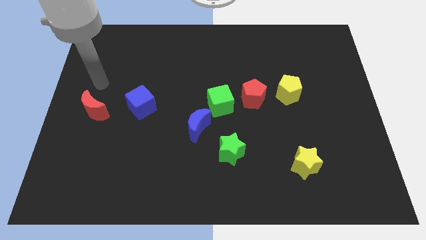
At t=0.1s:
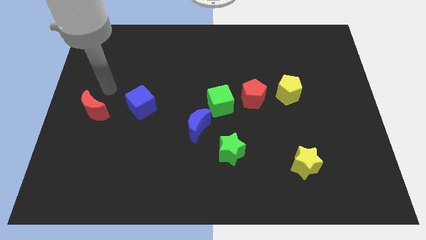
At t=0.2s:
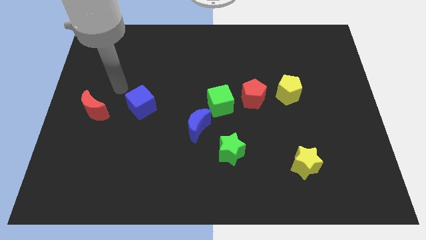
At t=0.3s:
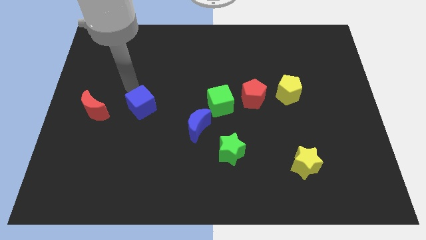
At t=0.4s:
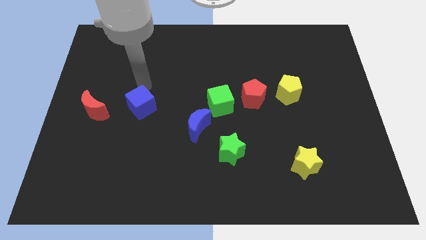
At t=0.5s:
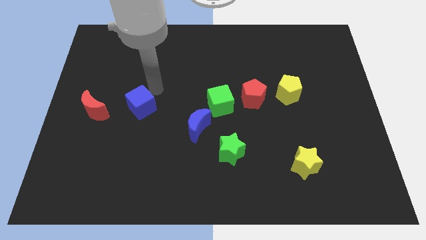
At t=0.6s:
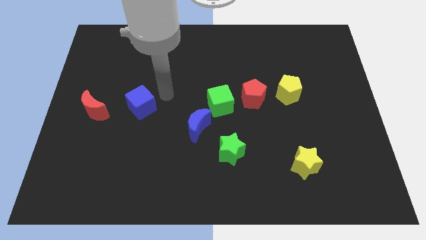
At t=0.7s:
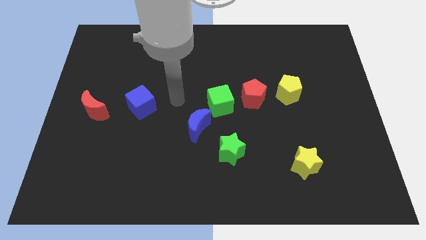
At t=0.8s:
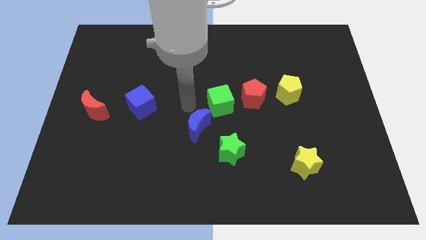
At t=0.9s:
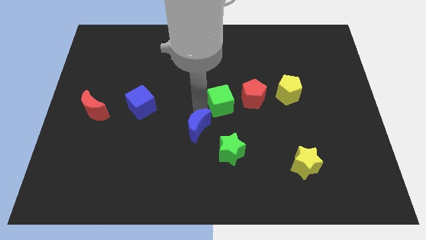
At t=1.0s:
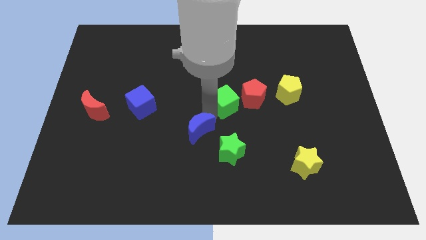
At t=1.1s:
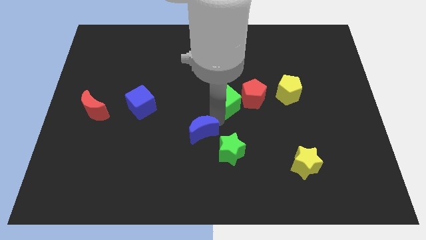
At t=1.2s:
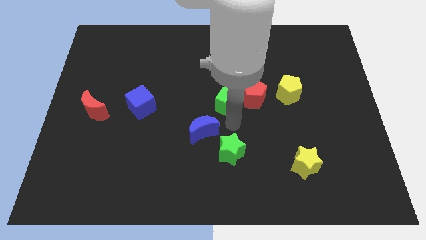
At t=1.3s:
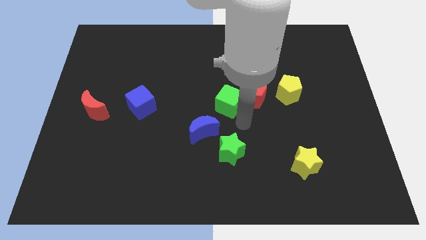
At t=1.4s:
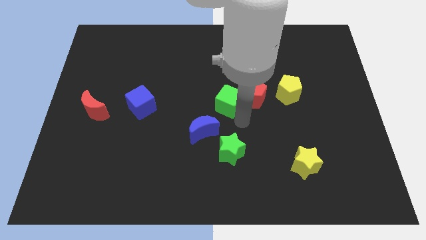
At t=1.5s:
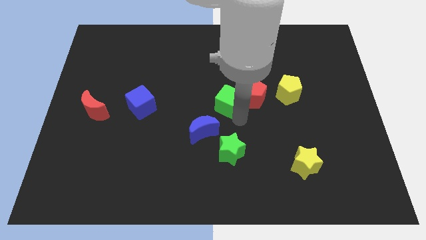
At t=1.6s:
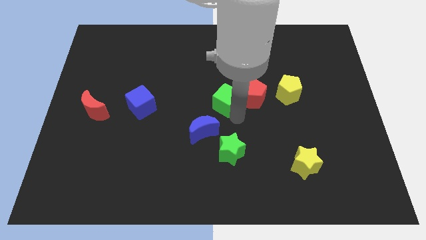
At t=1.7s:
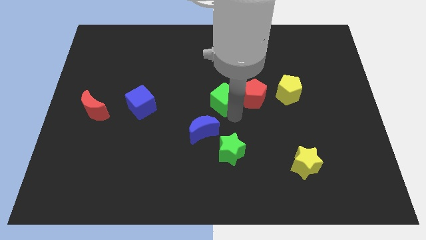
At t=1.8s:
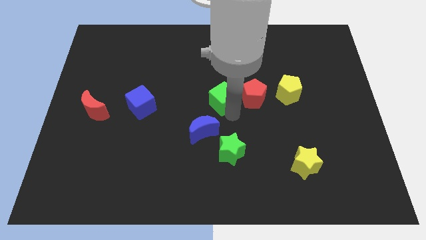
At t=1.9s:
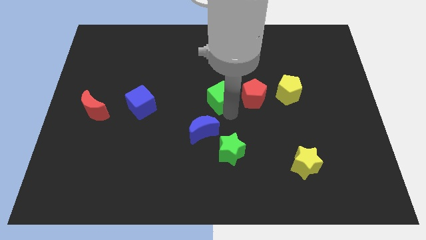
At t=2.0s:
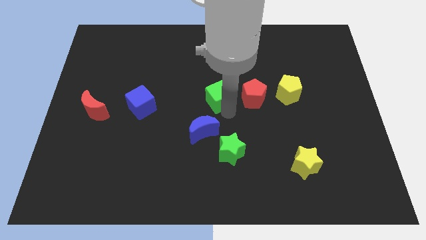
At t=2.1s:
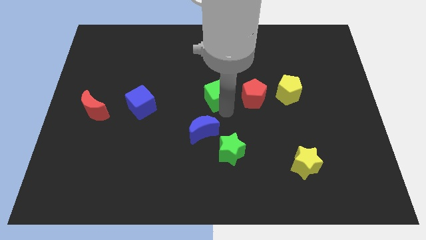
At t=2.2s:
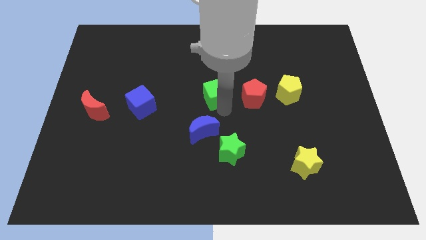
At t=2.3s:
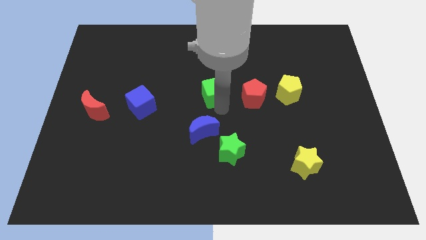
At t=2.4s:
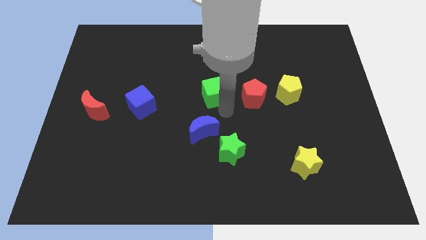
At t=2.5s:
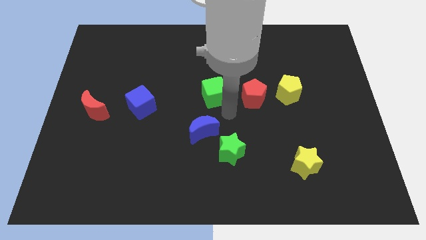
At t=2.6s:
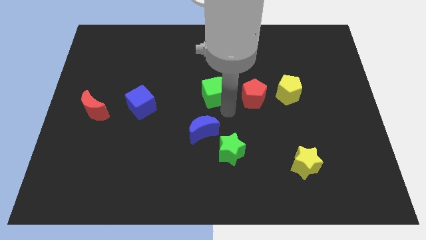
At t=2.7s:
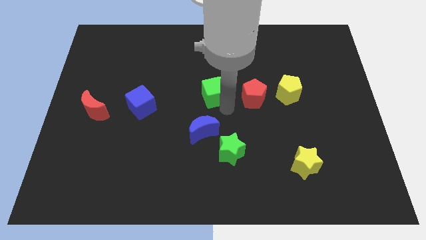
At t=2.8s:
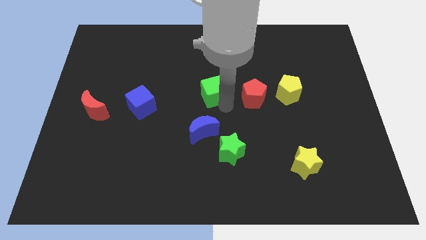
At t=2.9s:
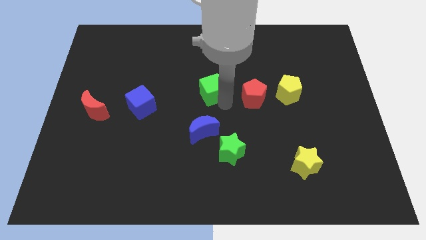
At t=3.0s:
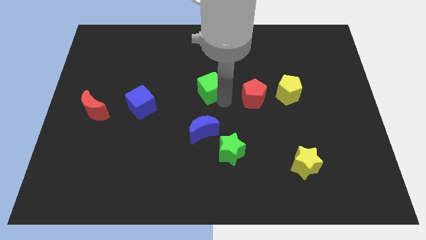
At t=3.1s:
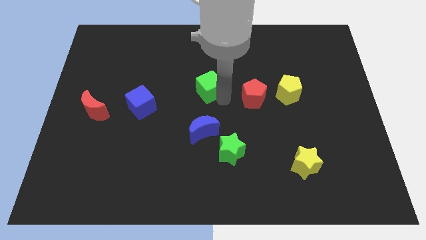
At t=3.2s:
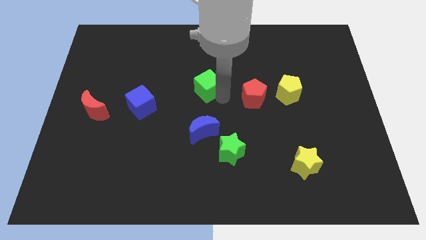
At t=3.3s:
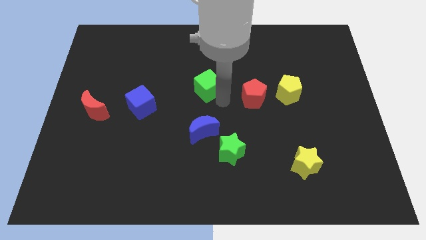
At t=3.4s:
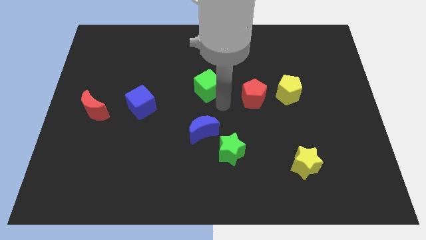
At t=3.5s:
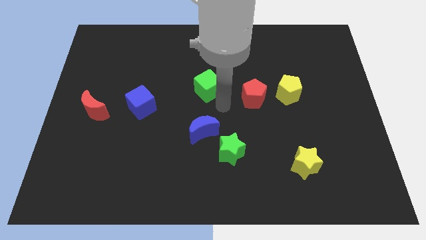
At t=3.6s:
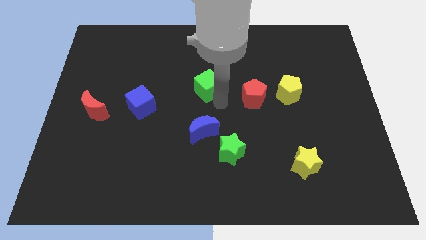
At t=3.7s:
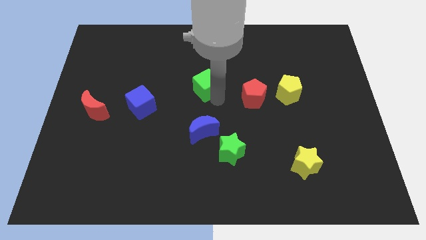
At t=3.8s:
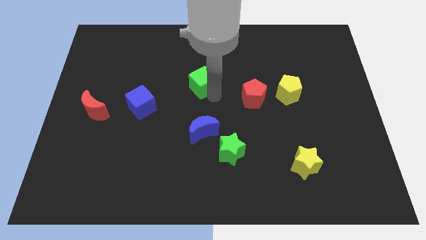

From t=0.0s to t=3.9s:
separate the green cube from the red pentagon and blue moon

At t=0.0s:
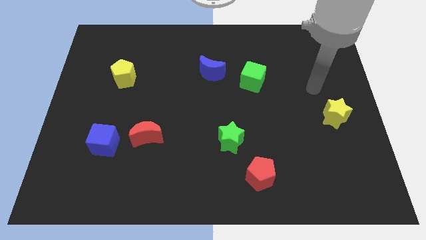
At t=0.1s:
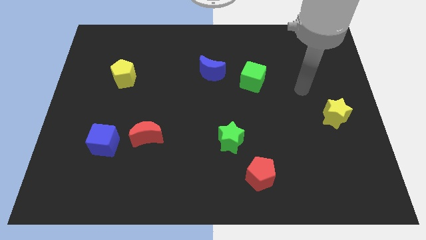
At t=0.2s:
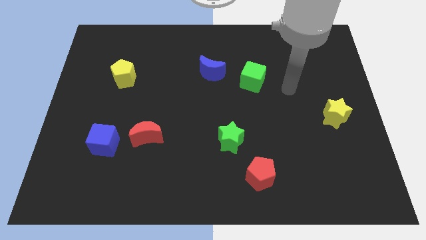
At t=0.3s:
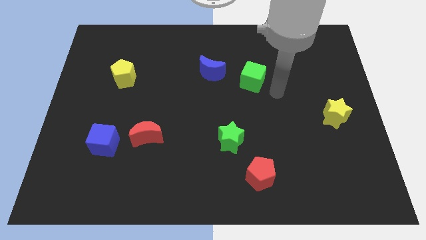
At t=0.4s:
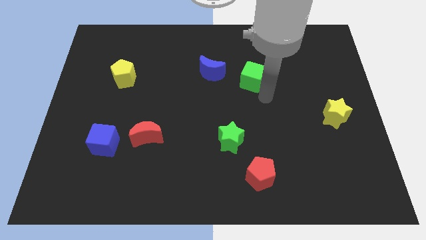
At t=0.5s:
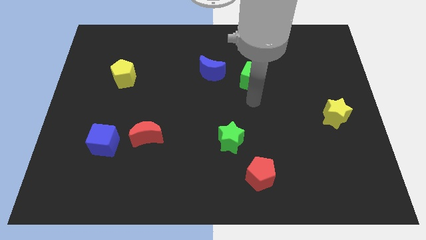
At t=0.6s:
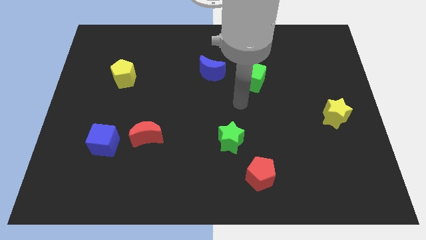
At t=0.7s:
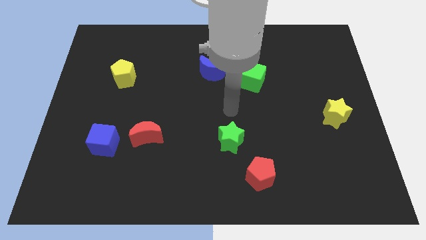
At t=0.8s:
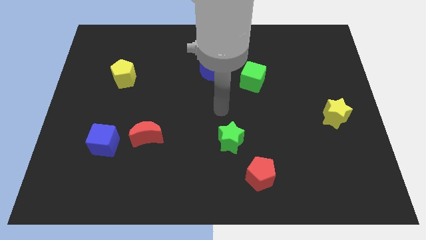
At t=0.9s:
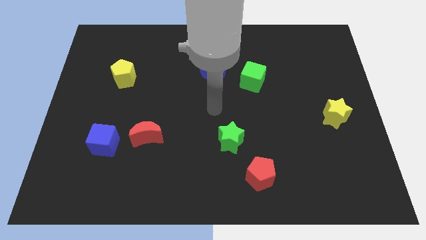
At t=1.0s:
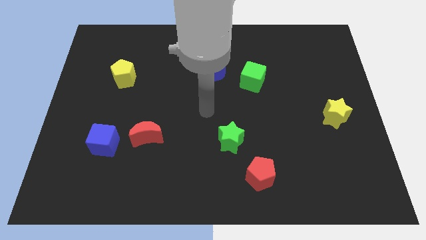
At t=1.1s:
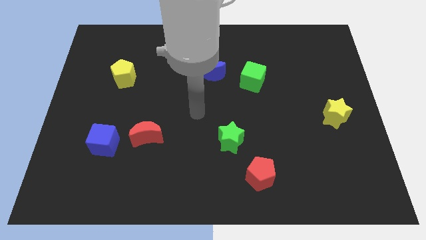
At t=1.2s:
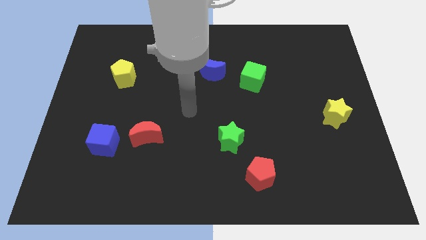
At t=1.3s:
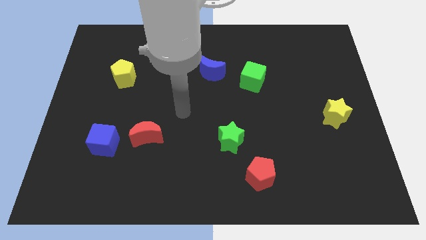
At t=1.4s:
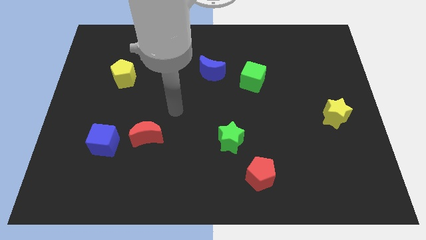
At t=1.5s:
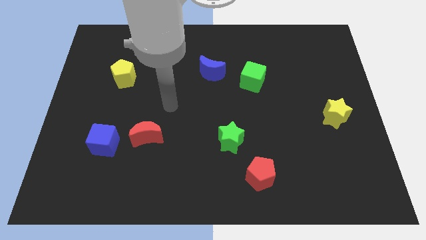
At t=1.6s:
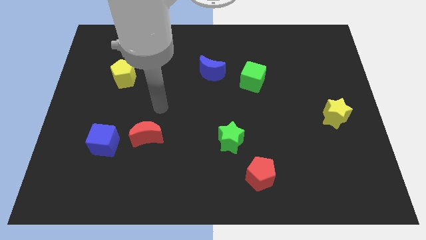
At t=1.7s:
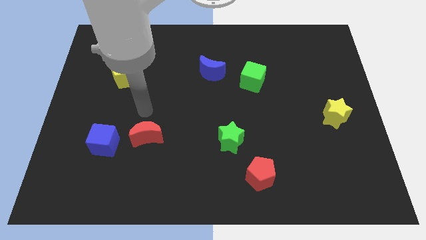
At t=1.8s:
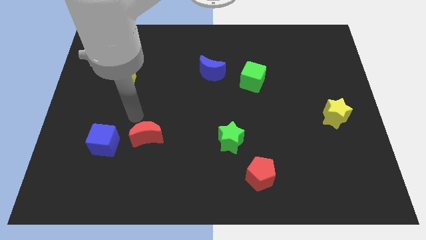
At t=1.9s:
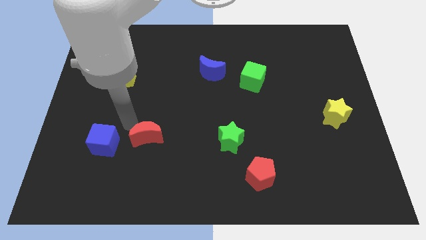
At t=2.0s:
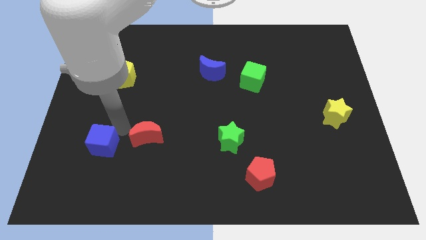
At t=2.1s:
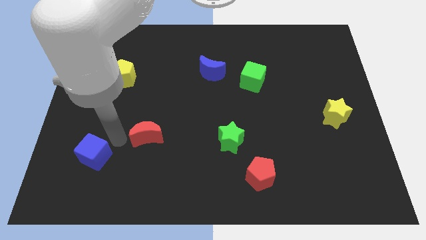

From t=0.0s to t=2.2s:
move the red moon away from the blue cube

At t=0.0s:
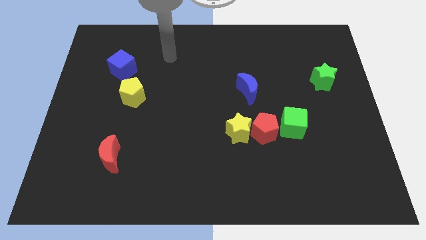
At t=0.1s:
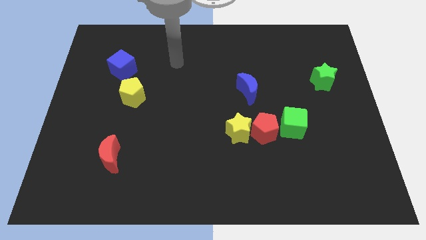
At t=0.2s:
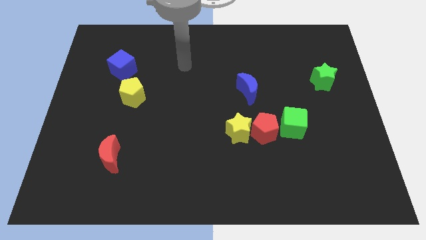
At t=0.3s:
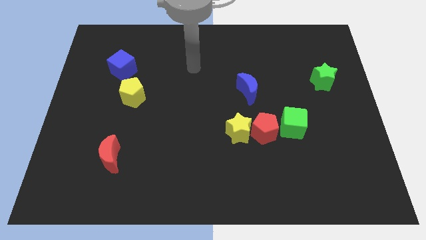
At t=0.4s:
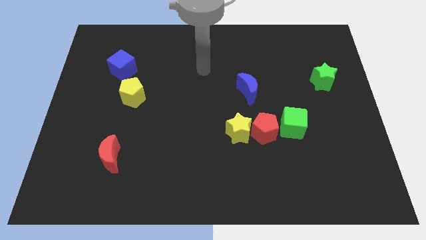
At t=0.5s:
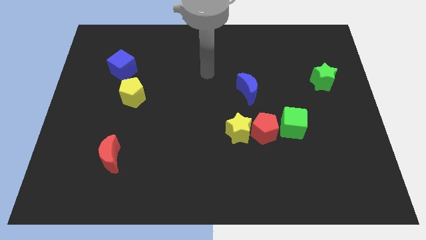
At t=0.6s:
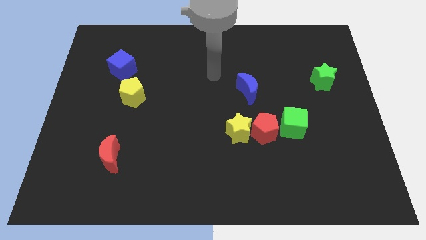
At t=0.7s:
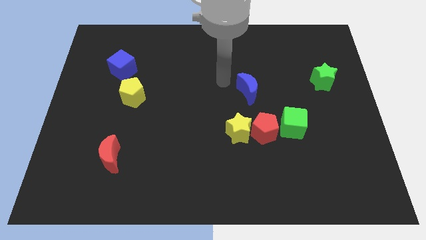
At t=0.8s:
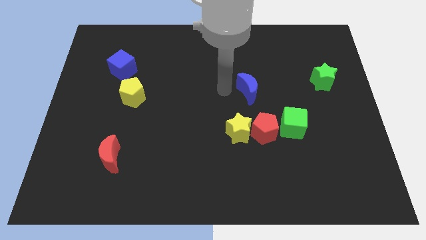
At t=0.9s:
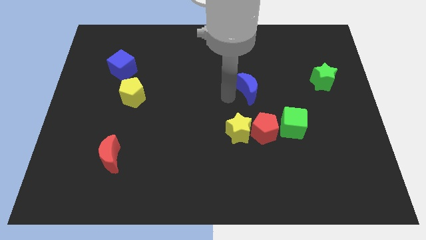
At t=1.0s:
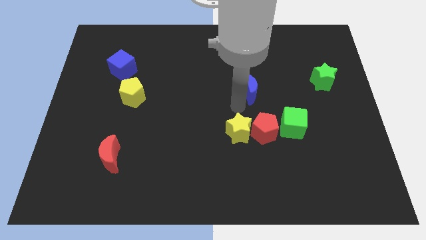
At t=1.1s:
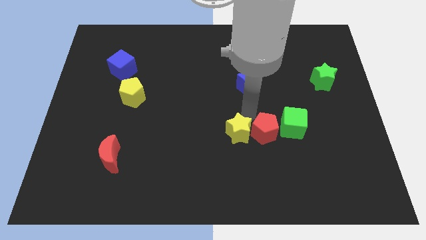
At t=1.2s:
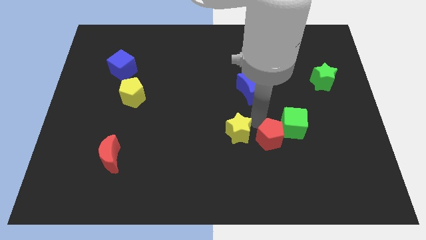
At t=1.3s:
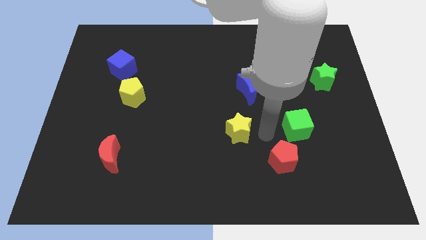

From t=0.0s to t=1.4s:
separate the yellow star from the red pentagon

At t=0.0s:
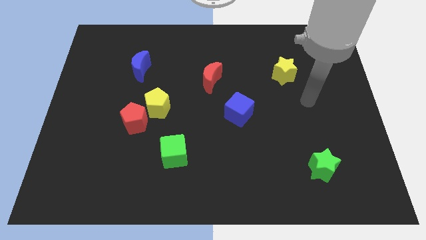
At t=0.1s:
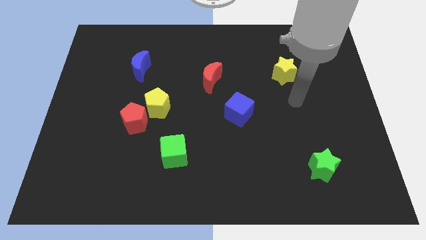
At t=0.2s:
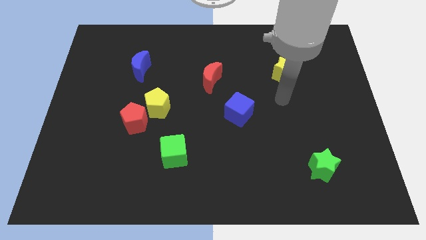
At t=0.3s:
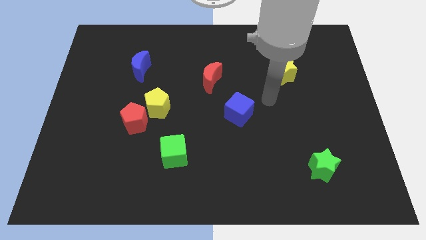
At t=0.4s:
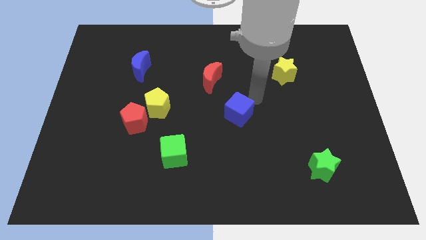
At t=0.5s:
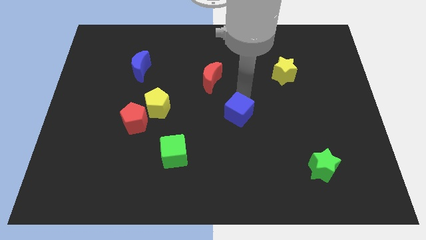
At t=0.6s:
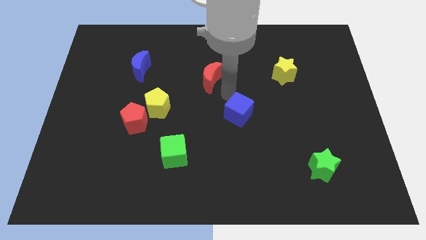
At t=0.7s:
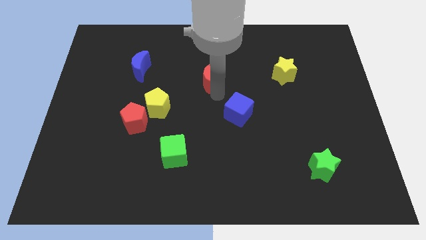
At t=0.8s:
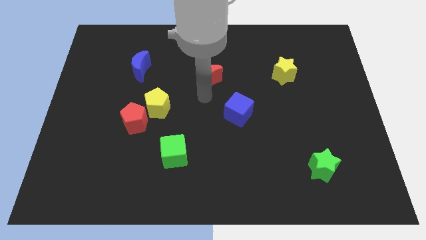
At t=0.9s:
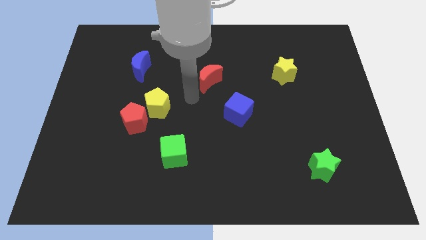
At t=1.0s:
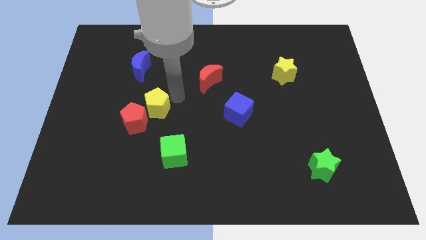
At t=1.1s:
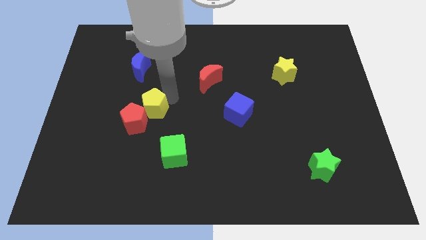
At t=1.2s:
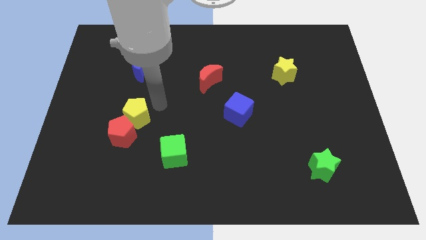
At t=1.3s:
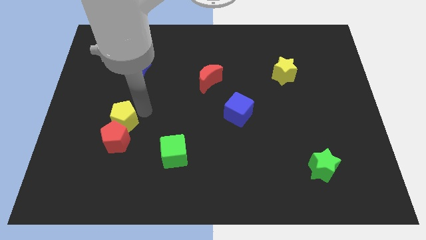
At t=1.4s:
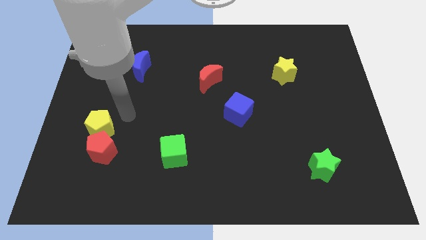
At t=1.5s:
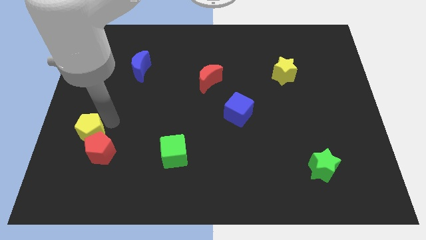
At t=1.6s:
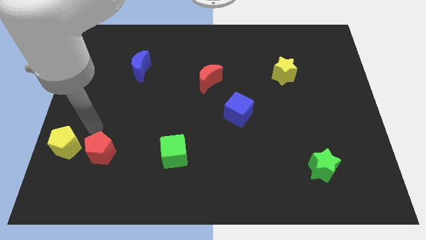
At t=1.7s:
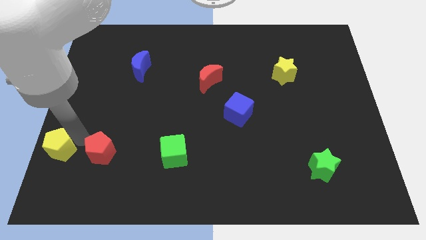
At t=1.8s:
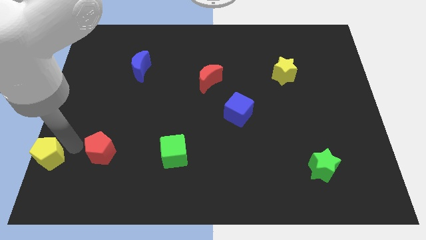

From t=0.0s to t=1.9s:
separate the red pentagon from the yellow pentagon
